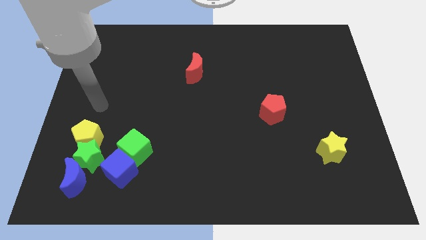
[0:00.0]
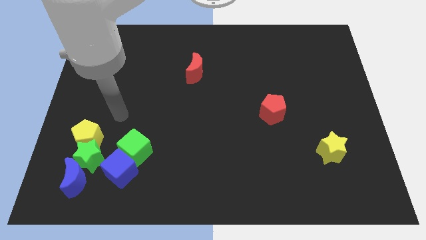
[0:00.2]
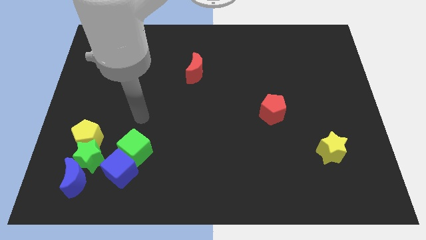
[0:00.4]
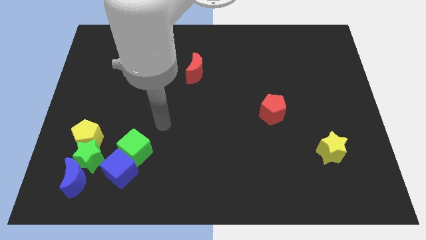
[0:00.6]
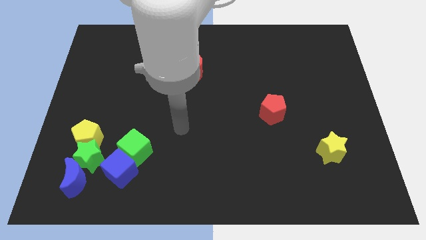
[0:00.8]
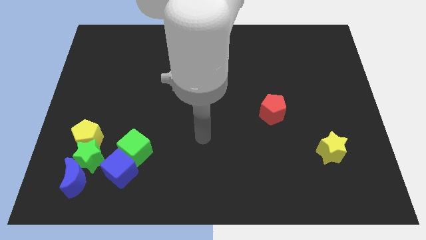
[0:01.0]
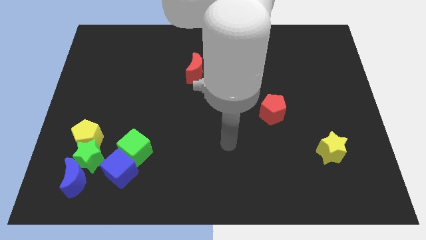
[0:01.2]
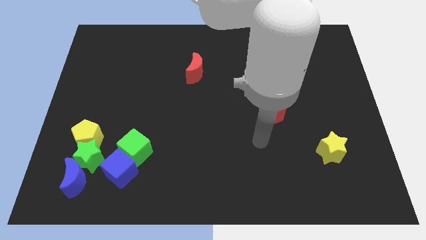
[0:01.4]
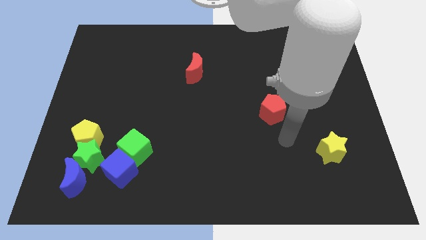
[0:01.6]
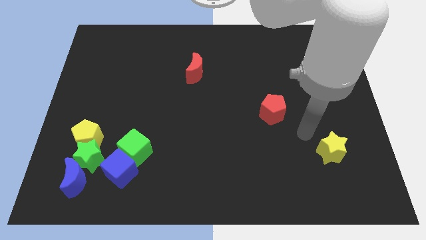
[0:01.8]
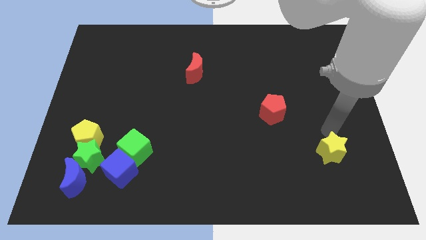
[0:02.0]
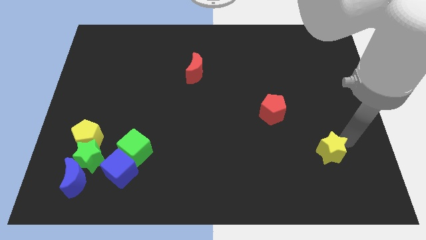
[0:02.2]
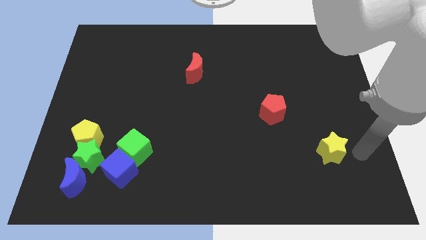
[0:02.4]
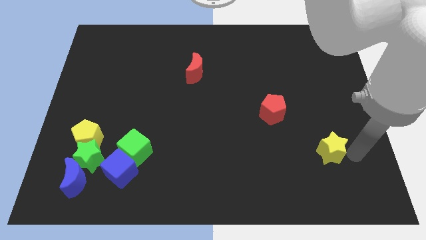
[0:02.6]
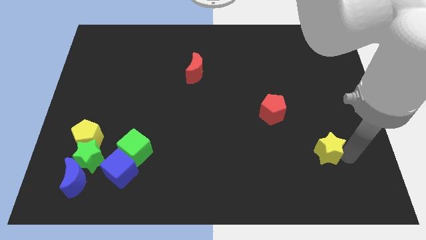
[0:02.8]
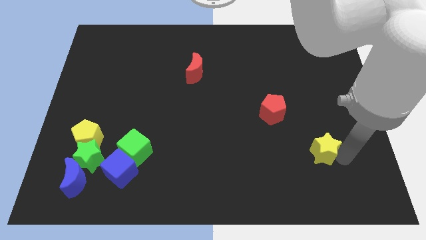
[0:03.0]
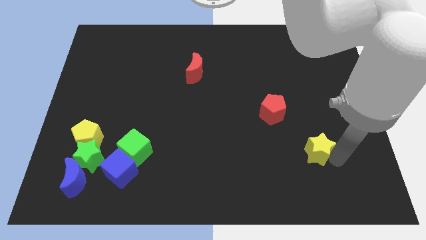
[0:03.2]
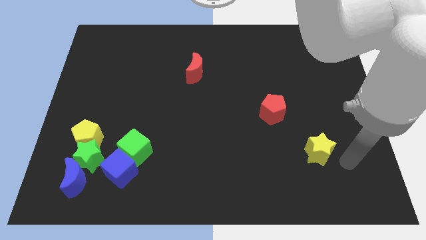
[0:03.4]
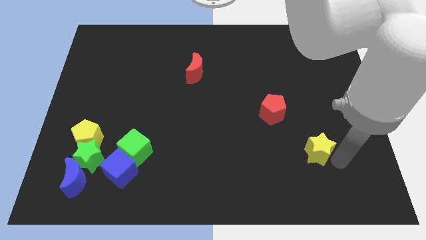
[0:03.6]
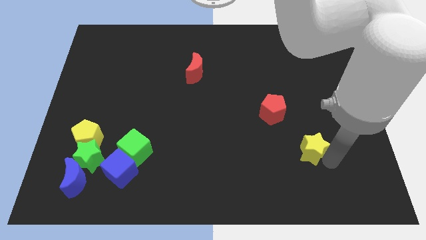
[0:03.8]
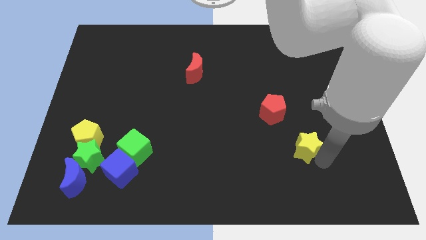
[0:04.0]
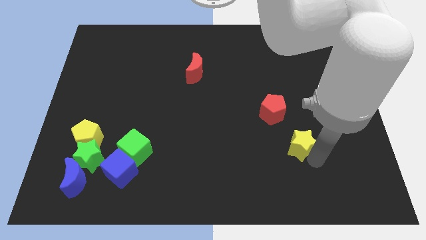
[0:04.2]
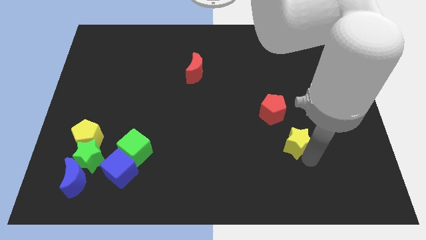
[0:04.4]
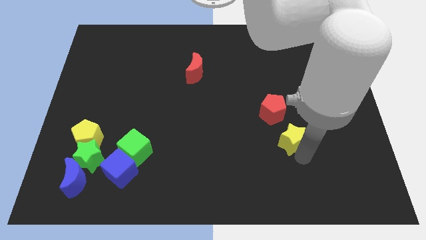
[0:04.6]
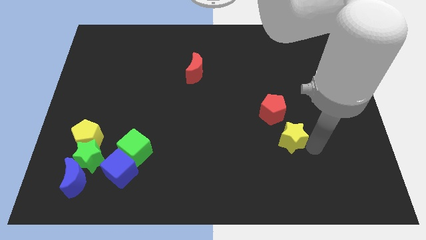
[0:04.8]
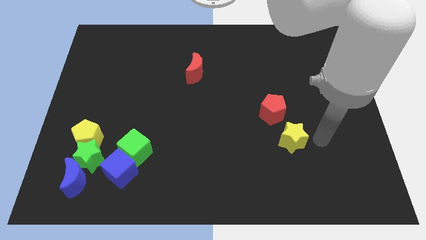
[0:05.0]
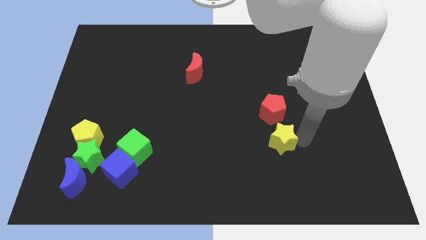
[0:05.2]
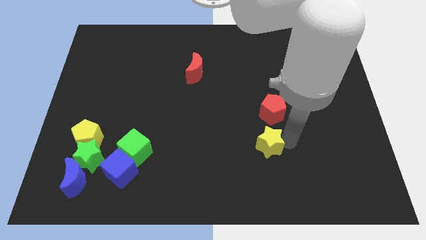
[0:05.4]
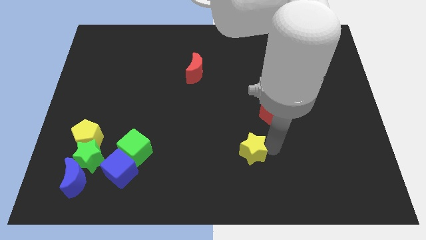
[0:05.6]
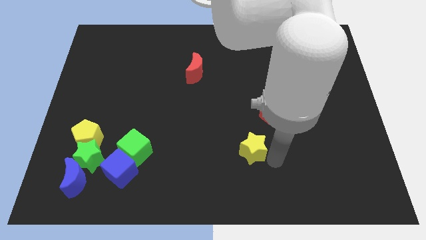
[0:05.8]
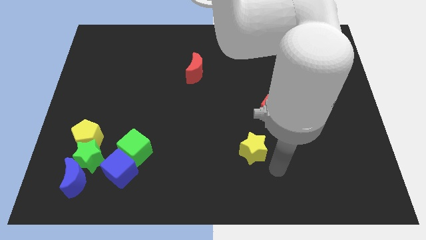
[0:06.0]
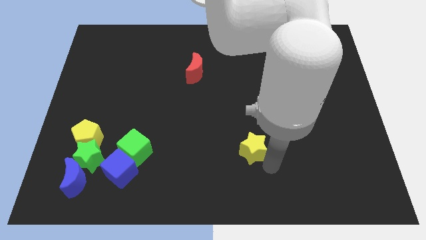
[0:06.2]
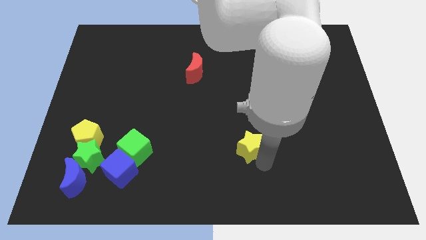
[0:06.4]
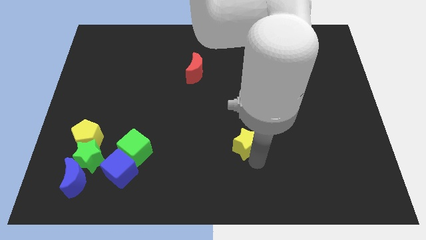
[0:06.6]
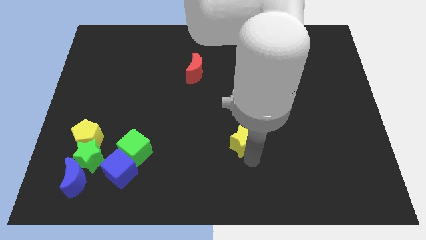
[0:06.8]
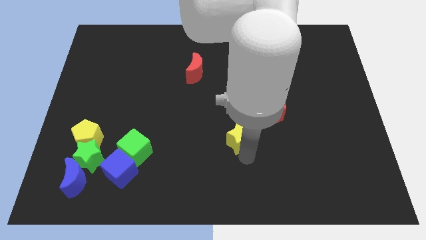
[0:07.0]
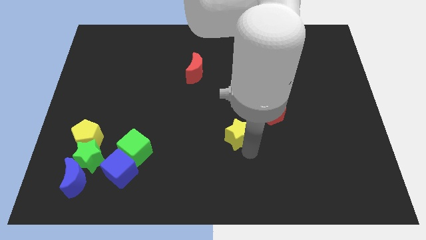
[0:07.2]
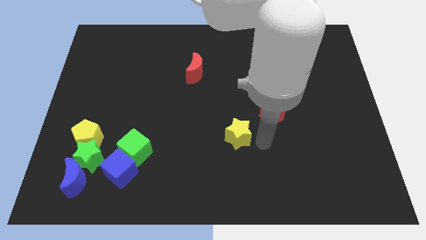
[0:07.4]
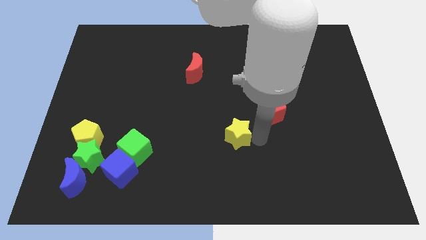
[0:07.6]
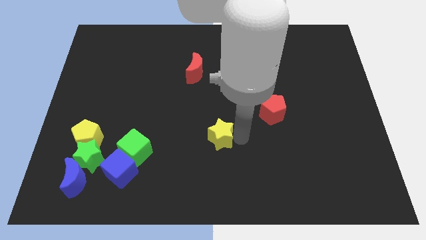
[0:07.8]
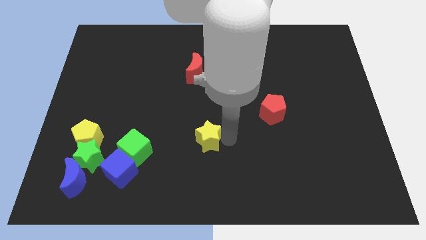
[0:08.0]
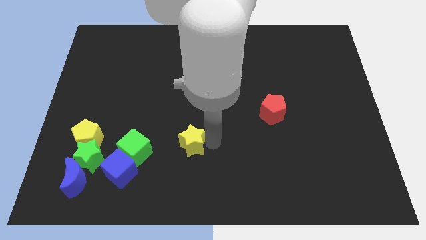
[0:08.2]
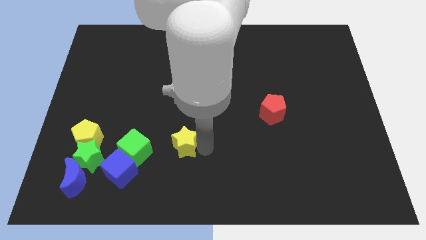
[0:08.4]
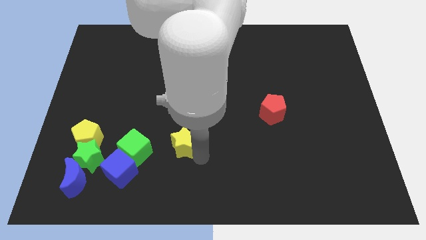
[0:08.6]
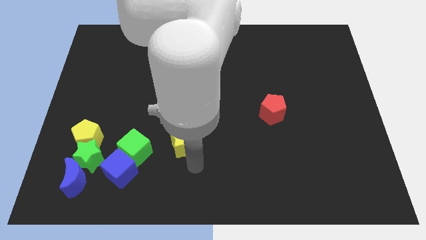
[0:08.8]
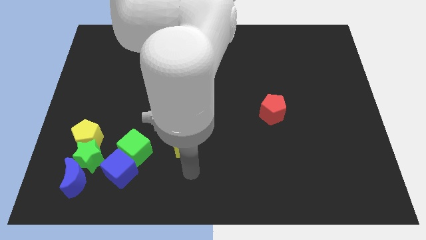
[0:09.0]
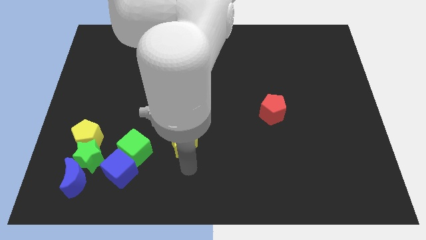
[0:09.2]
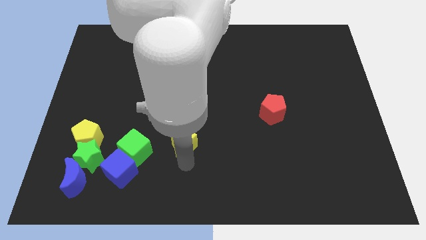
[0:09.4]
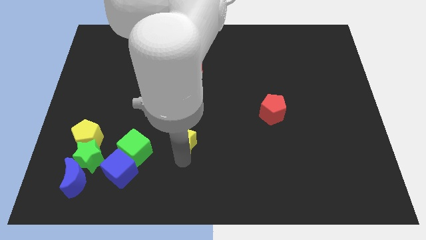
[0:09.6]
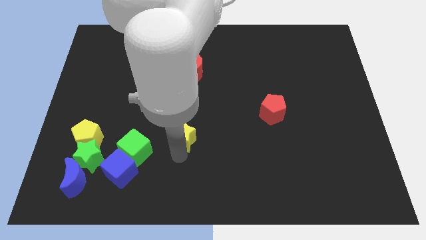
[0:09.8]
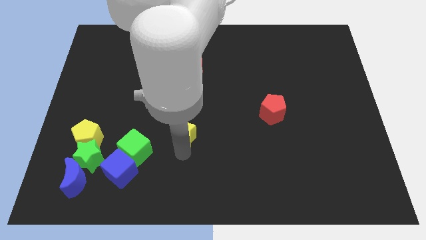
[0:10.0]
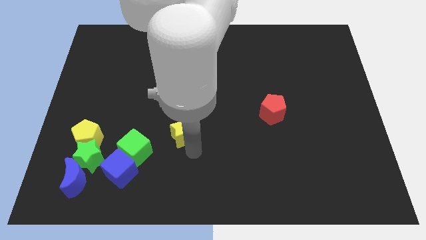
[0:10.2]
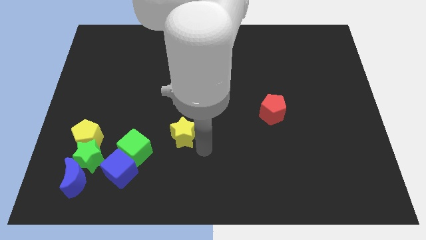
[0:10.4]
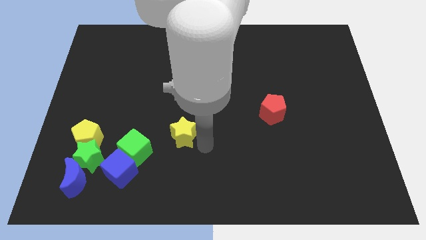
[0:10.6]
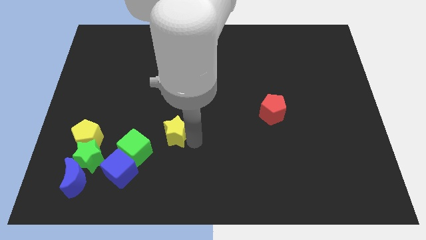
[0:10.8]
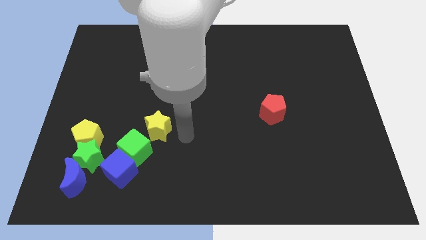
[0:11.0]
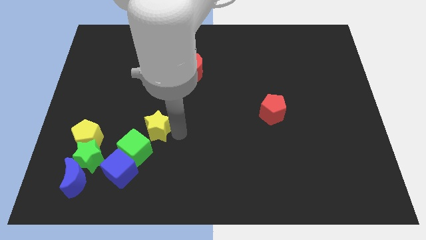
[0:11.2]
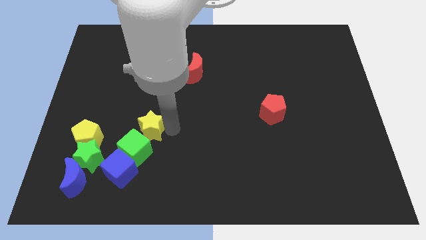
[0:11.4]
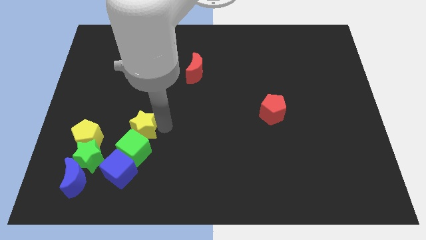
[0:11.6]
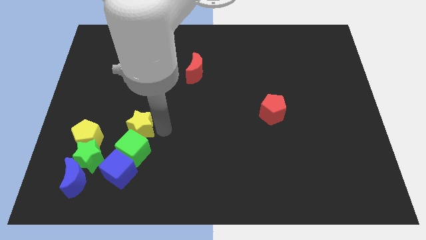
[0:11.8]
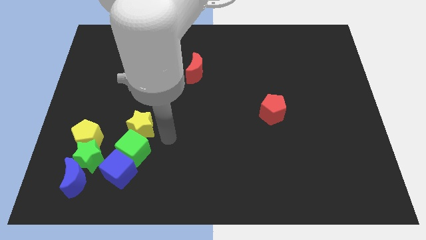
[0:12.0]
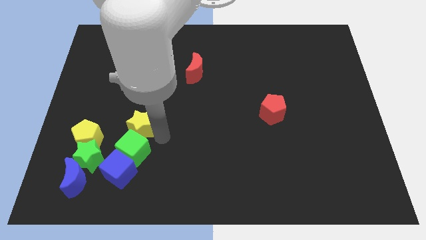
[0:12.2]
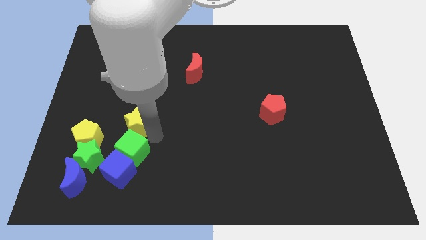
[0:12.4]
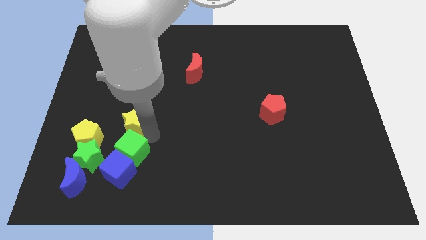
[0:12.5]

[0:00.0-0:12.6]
put the yellow star to the top right side of the yellow pentagon

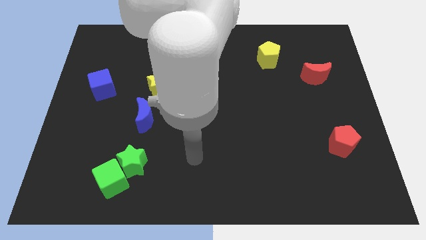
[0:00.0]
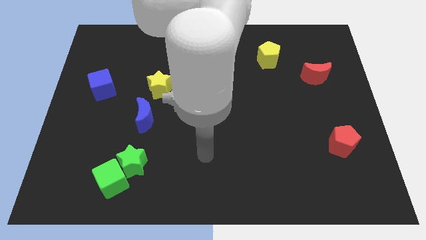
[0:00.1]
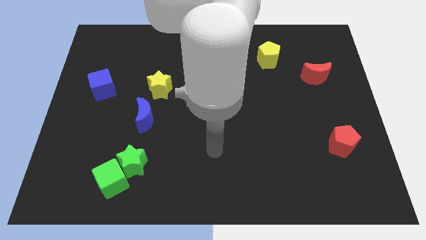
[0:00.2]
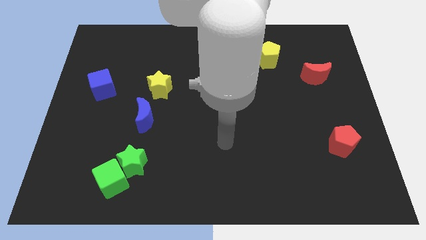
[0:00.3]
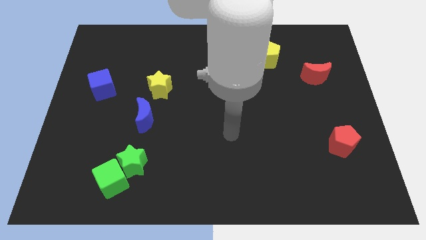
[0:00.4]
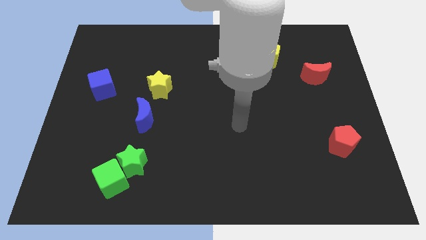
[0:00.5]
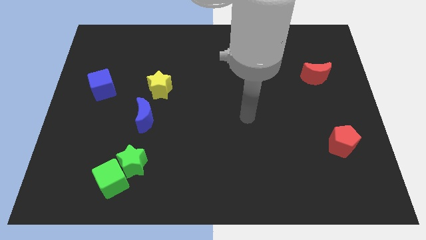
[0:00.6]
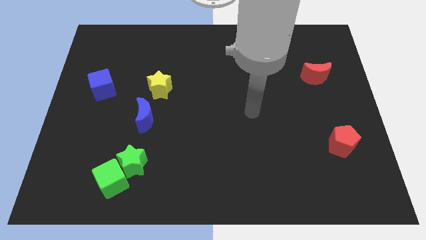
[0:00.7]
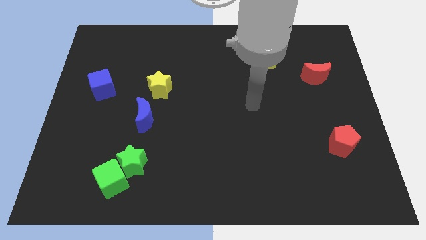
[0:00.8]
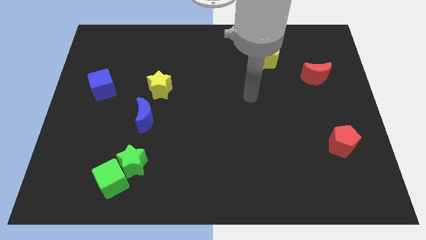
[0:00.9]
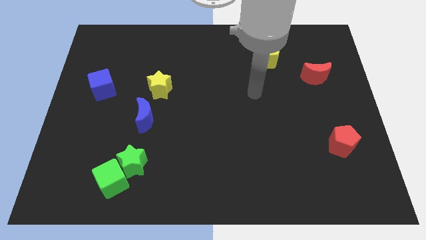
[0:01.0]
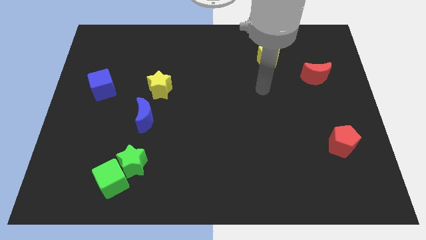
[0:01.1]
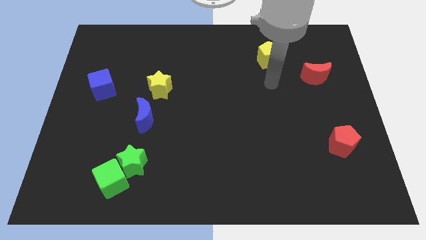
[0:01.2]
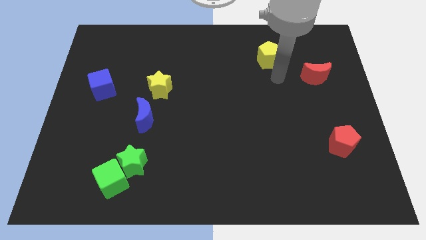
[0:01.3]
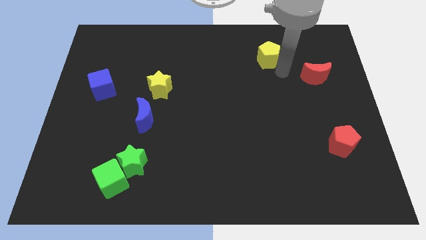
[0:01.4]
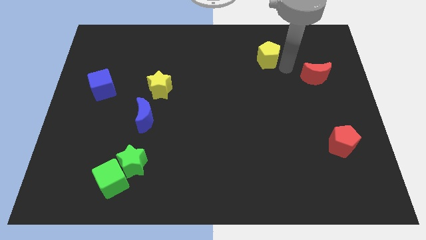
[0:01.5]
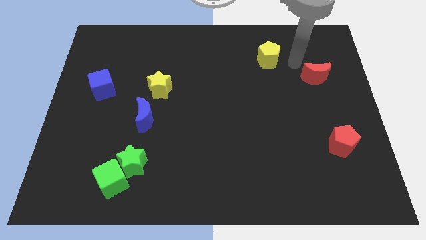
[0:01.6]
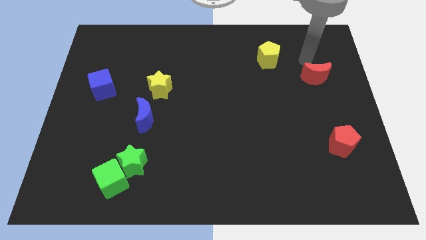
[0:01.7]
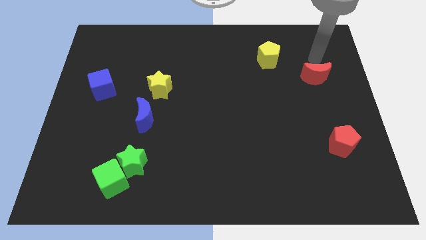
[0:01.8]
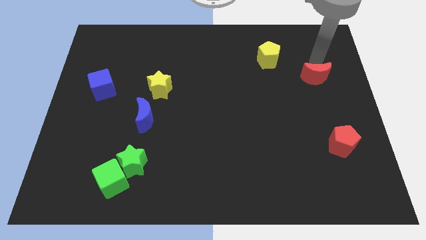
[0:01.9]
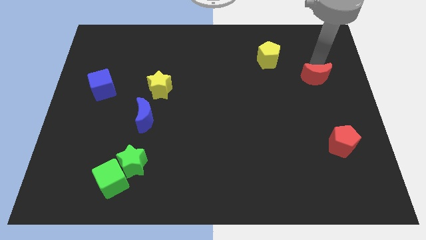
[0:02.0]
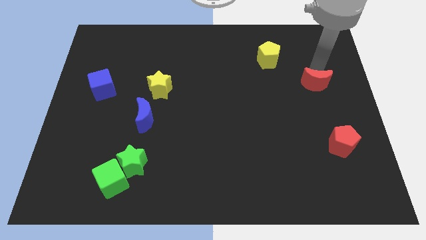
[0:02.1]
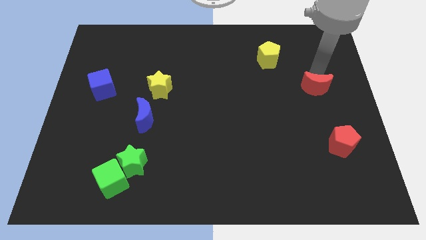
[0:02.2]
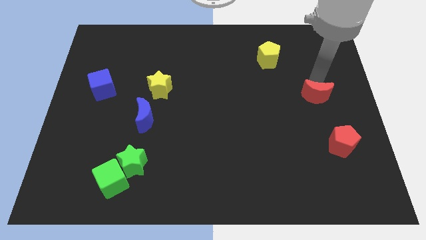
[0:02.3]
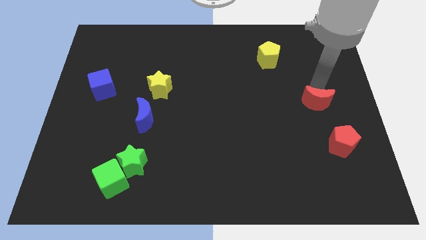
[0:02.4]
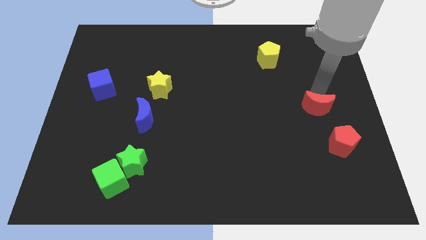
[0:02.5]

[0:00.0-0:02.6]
push the red moon diagonally up and to the left of the red pentagon
